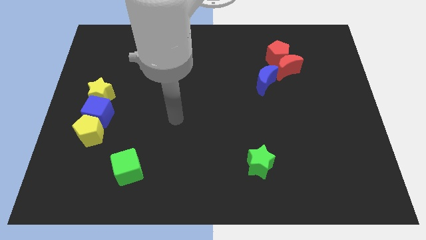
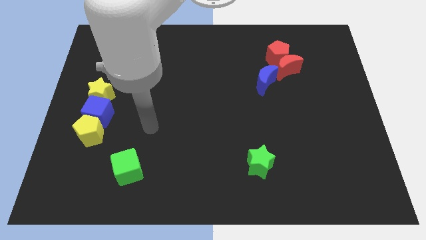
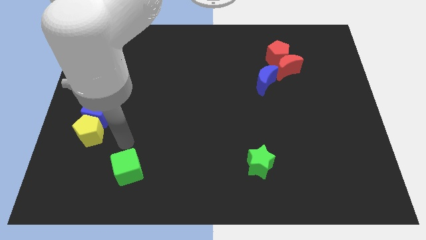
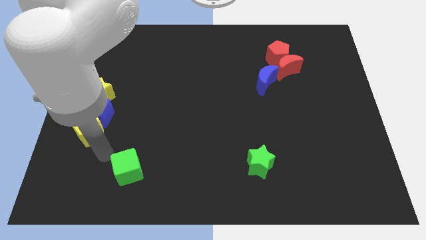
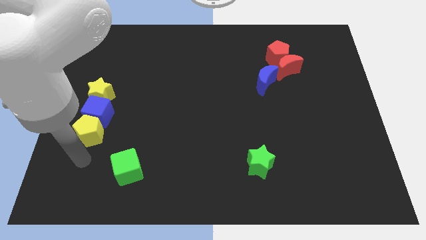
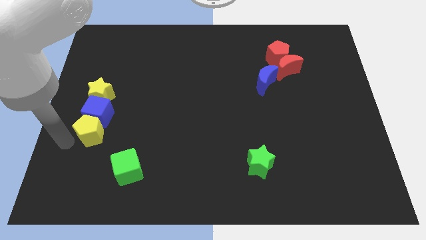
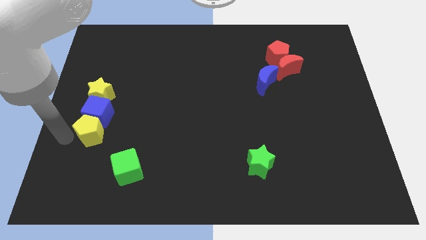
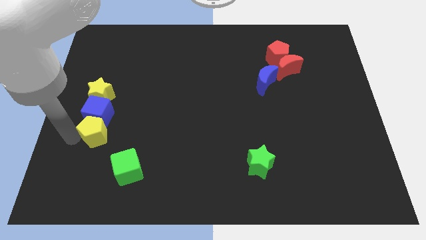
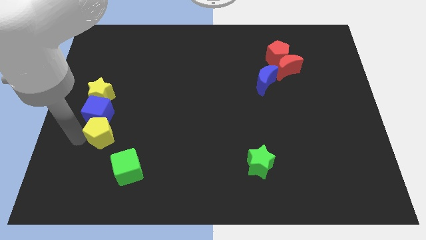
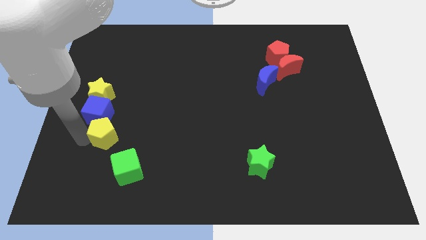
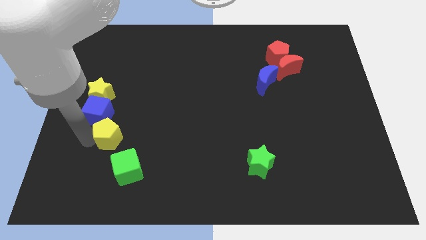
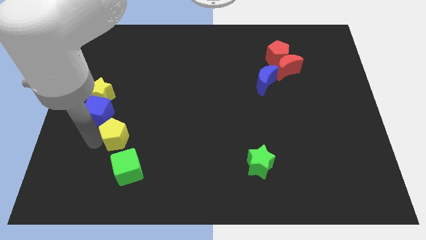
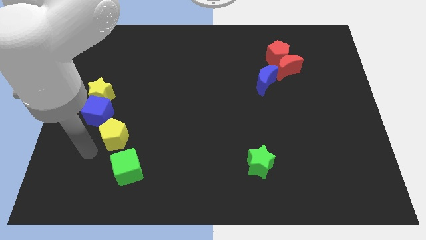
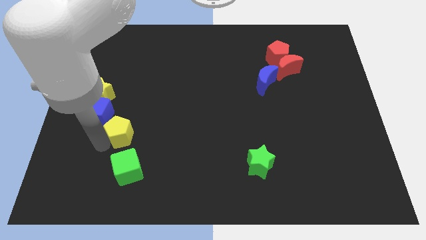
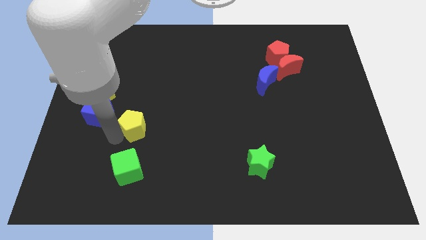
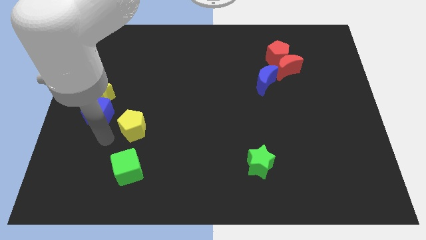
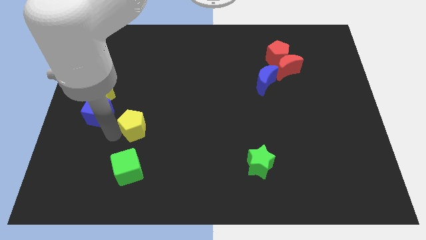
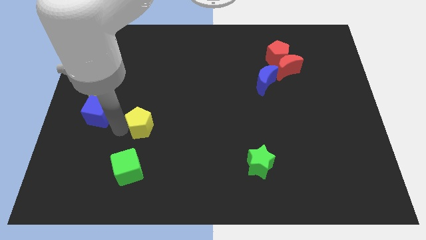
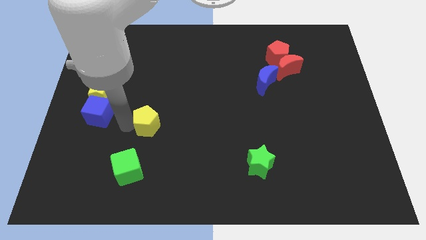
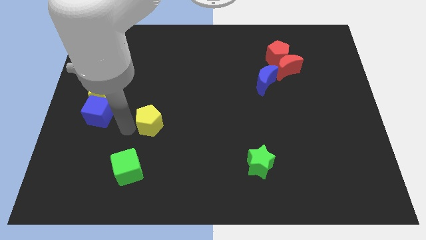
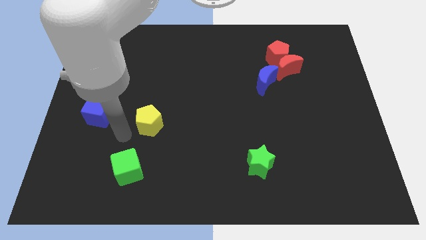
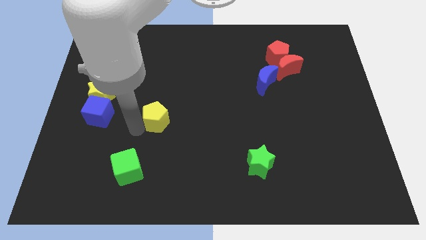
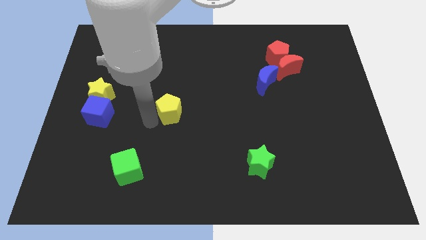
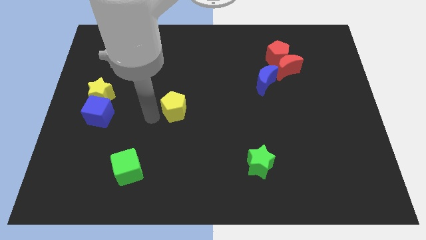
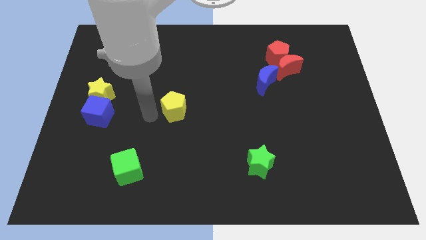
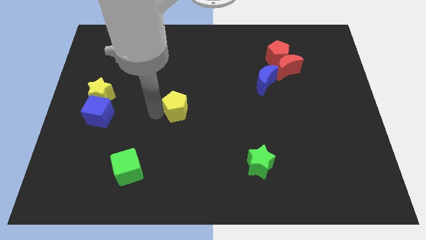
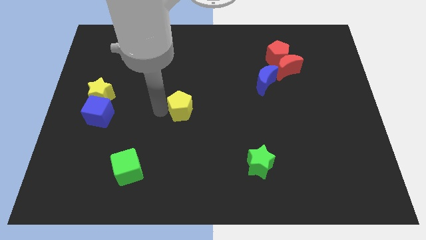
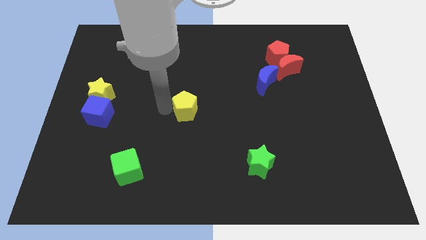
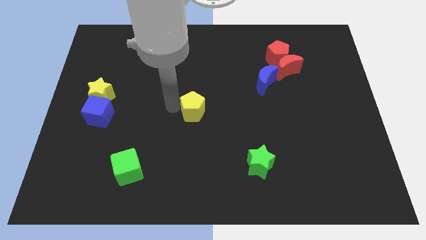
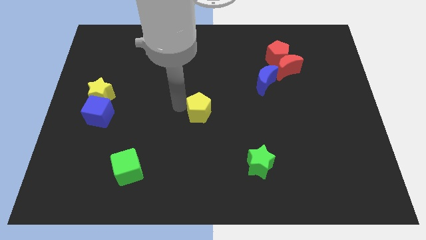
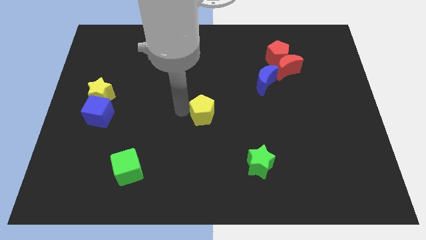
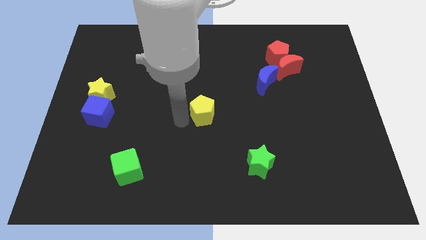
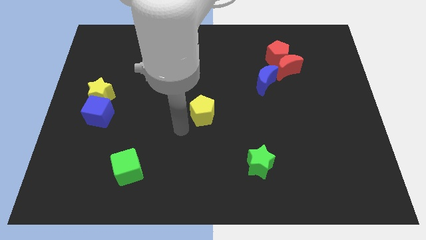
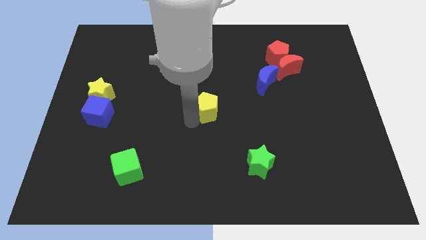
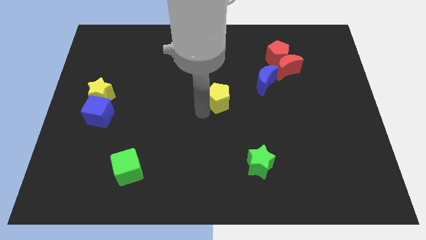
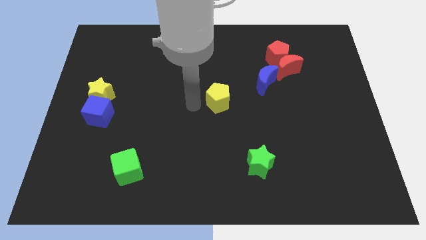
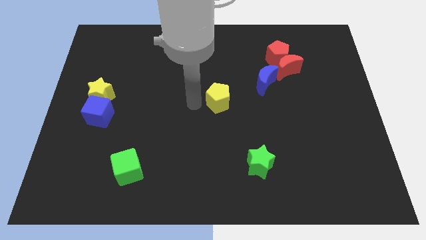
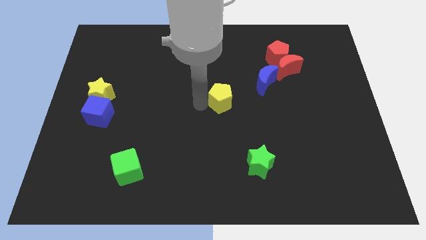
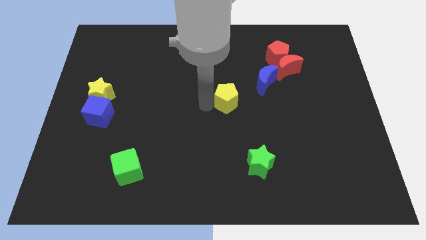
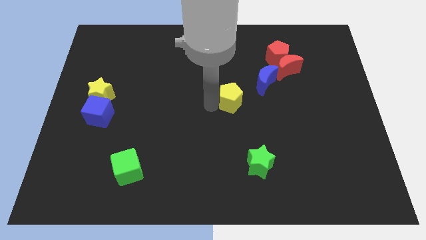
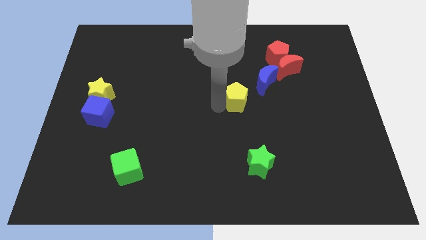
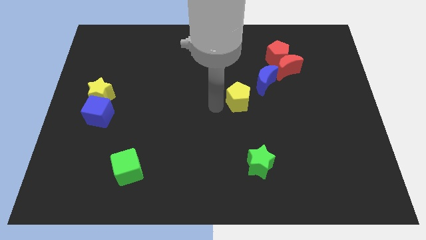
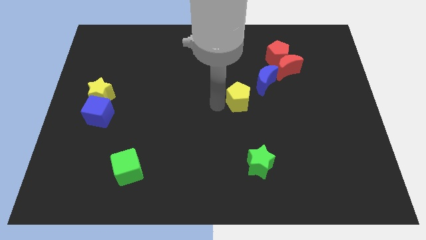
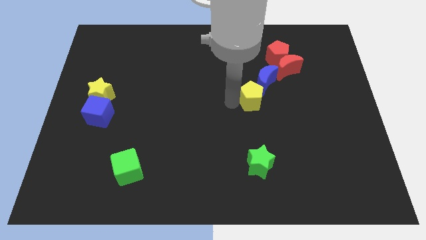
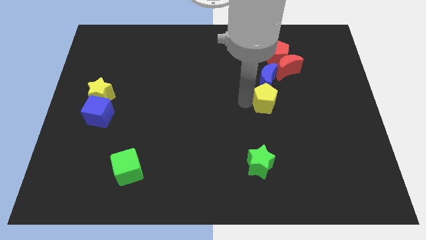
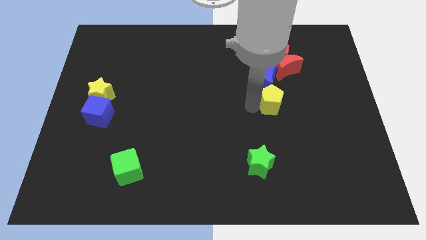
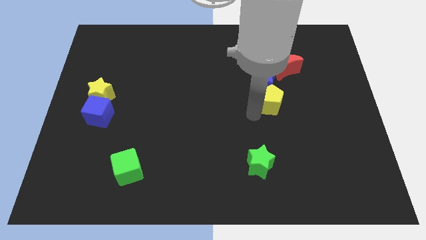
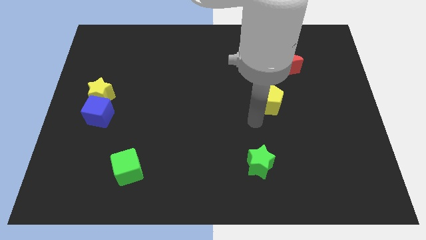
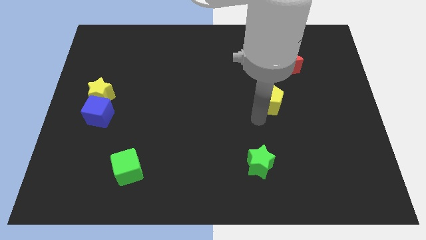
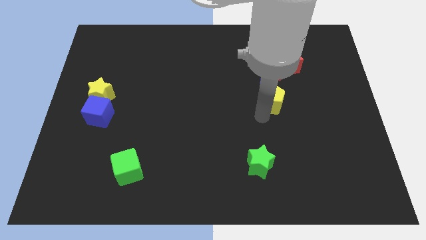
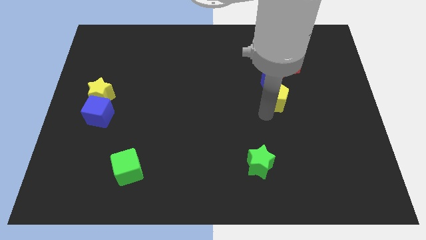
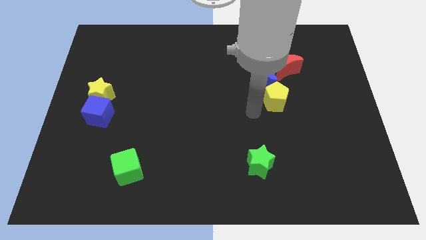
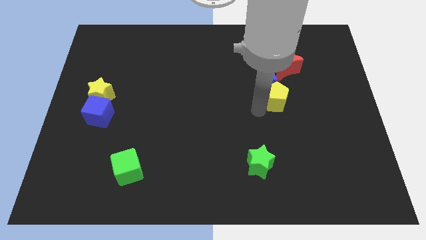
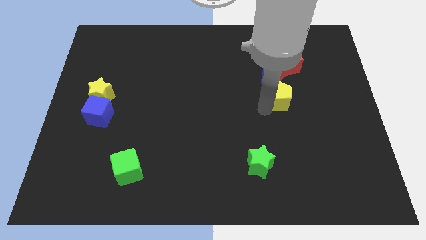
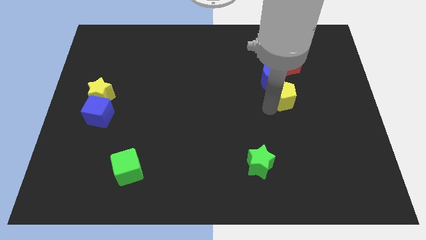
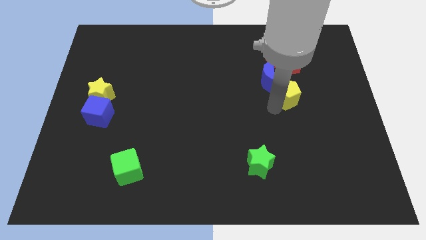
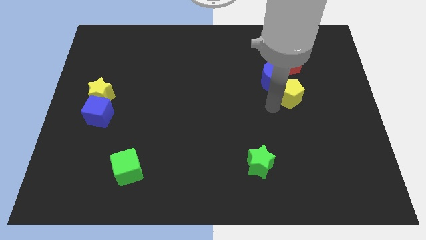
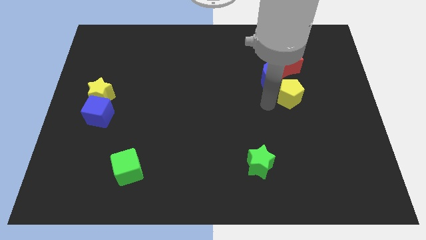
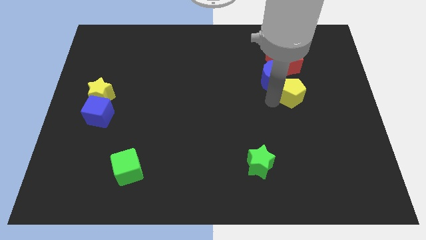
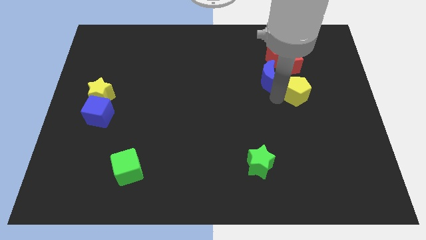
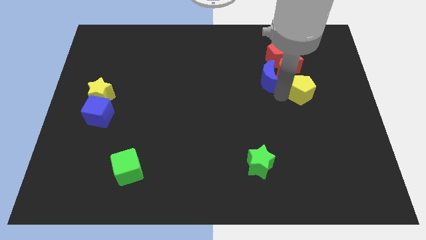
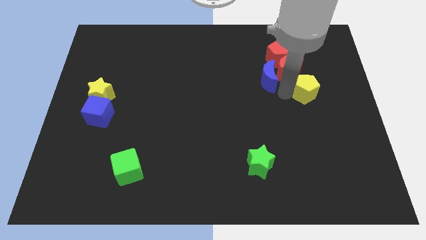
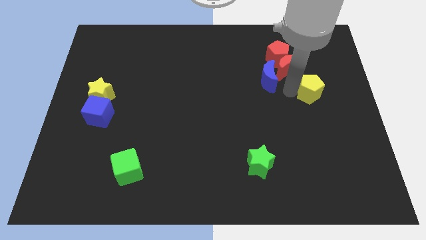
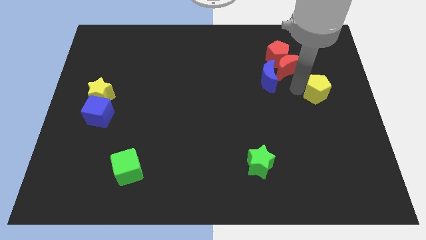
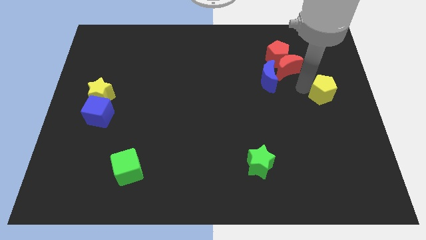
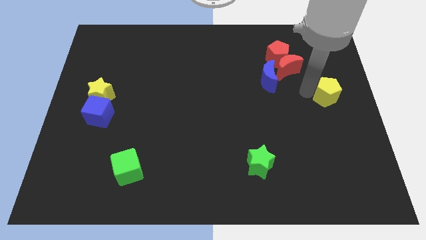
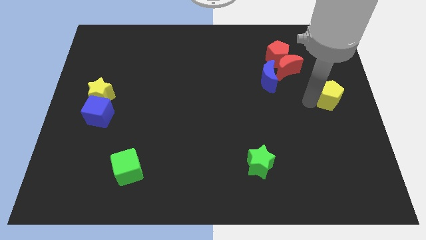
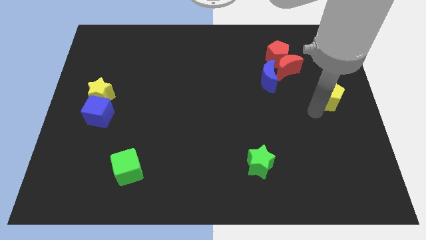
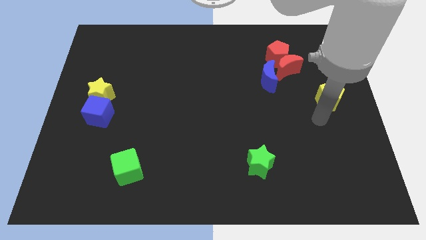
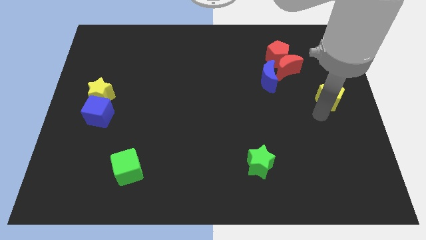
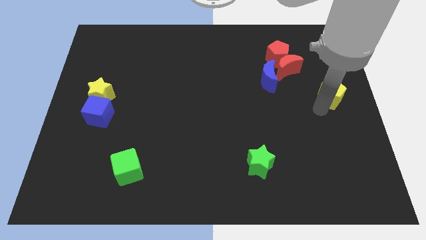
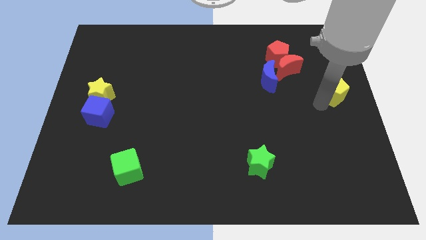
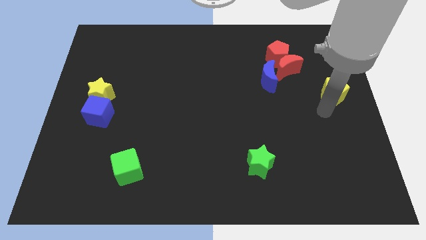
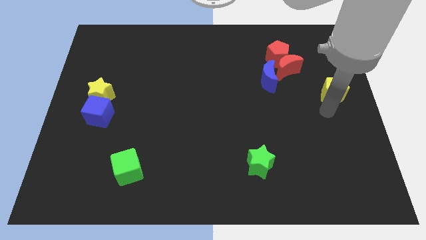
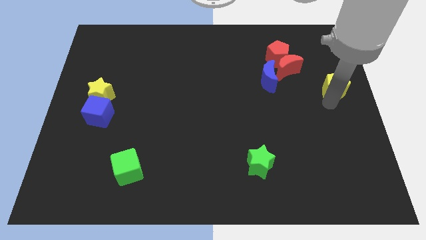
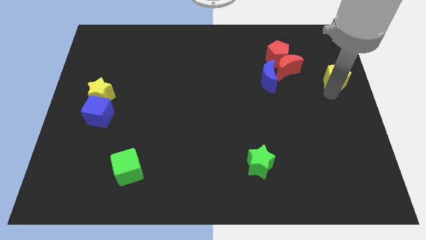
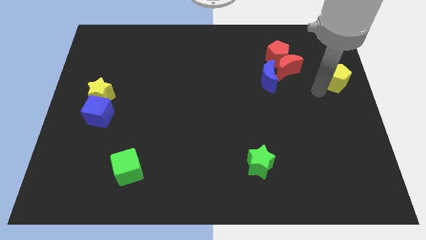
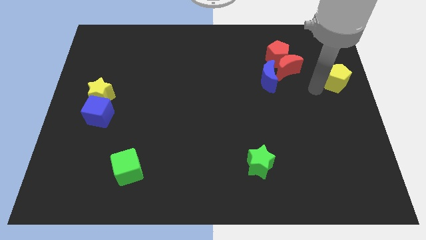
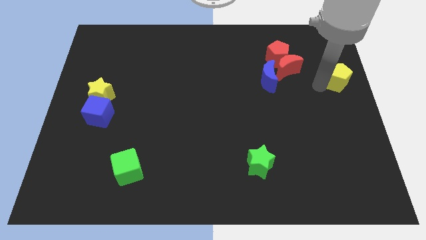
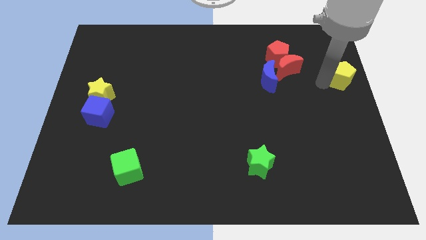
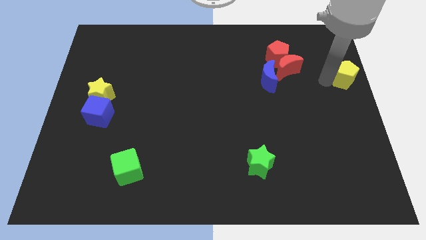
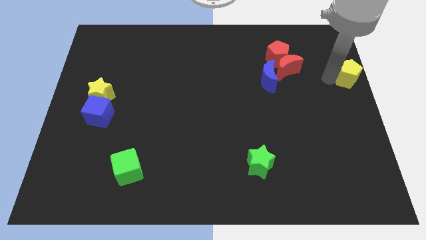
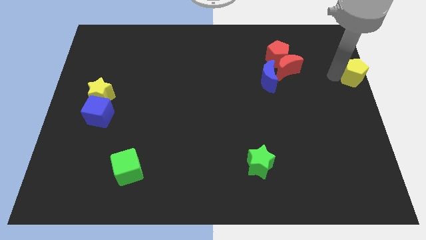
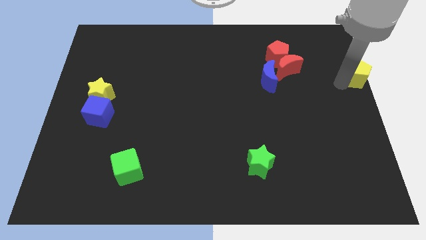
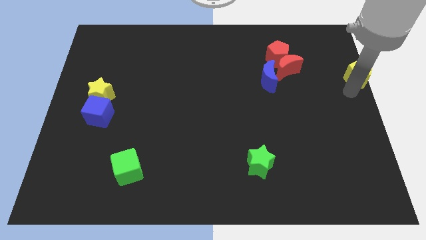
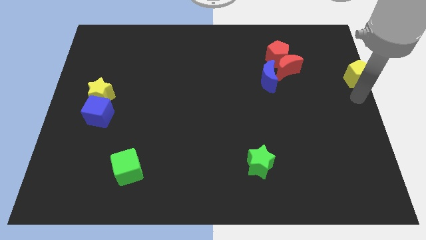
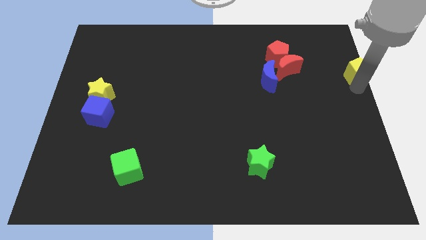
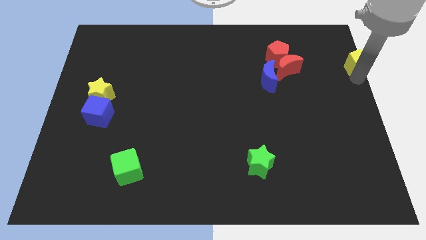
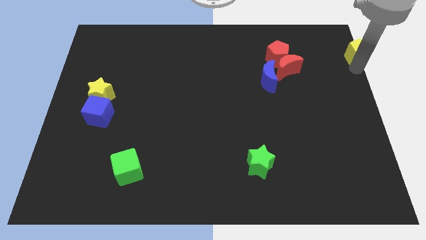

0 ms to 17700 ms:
slide the yellow pentagon to the upper right corner
